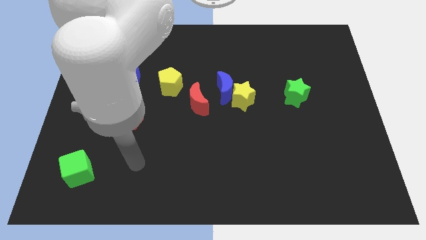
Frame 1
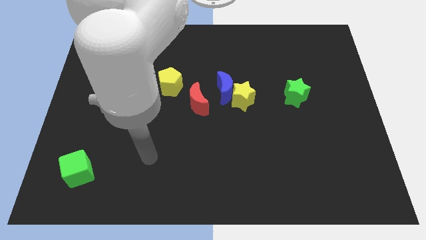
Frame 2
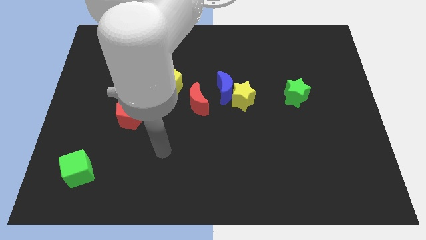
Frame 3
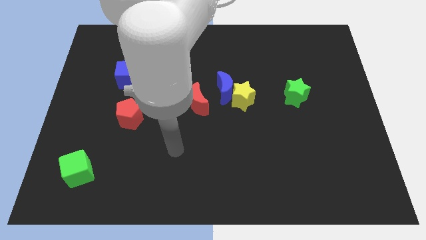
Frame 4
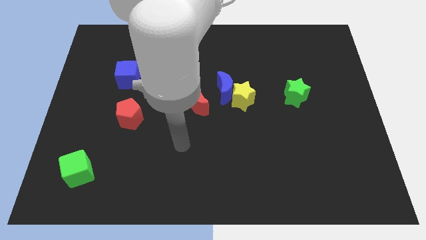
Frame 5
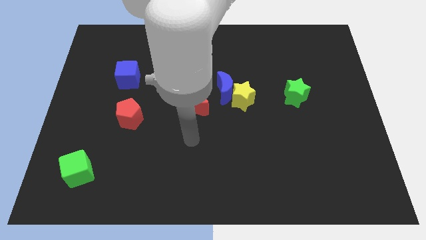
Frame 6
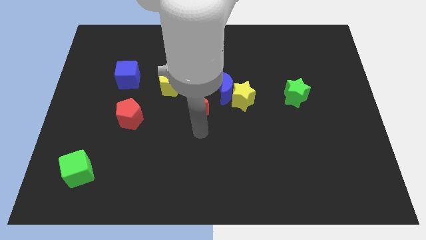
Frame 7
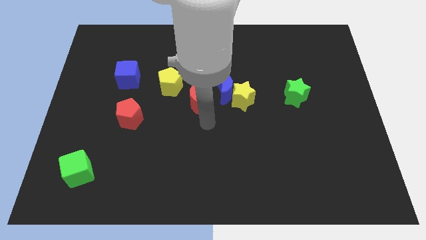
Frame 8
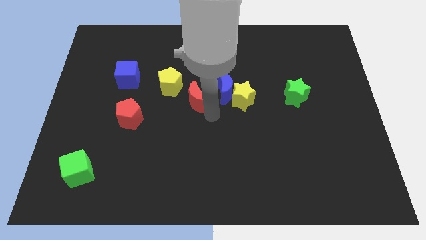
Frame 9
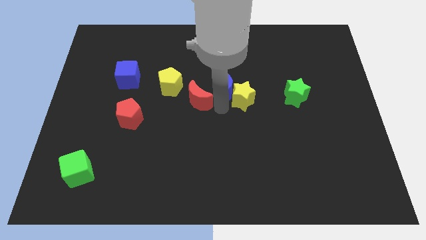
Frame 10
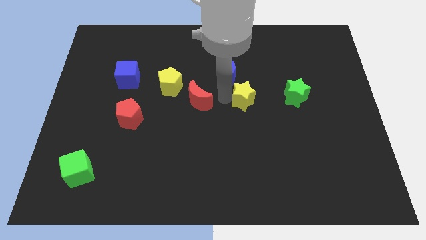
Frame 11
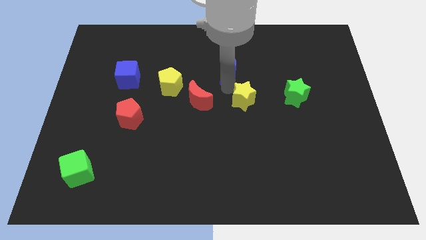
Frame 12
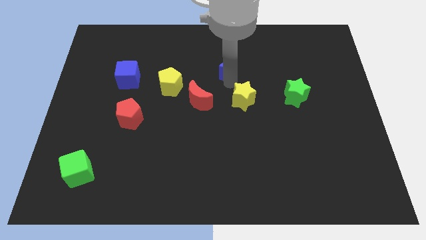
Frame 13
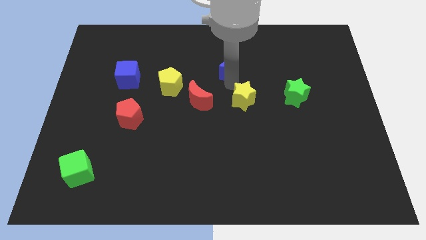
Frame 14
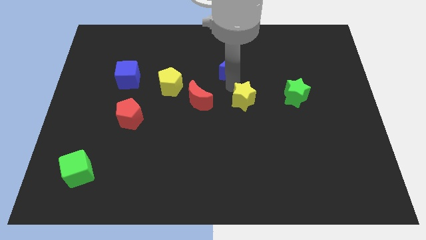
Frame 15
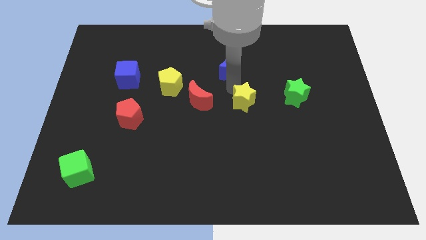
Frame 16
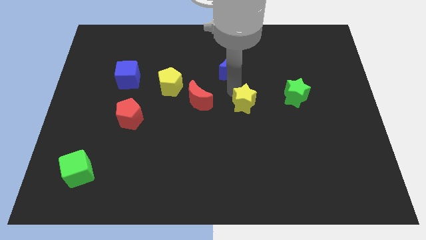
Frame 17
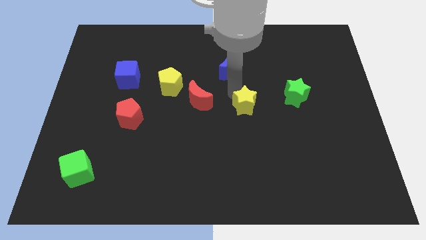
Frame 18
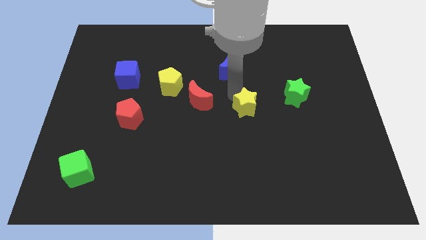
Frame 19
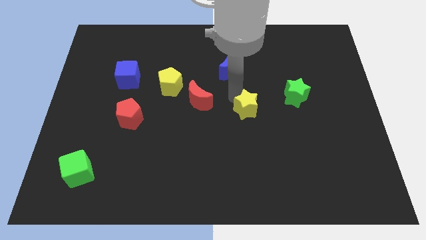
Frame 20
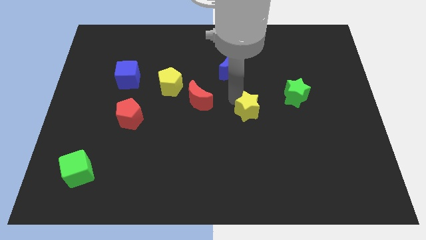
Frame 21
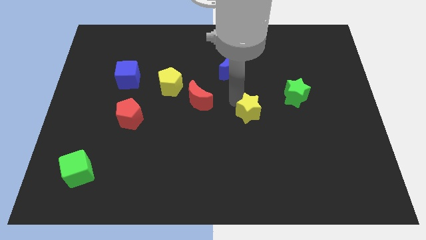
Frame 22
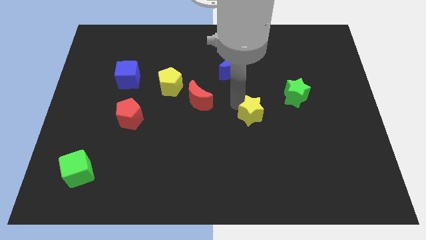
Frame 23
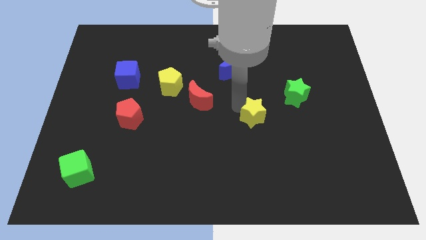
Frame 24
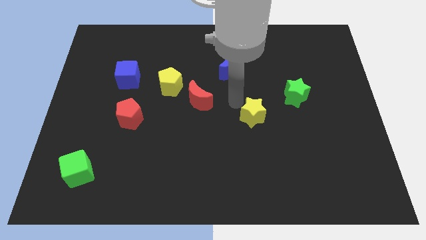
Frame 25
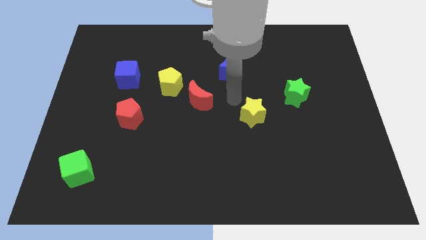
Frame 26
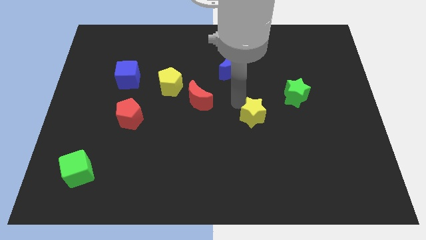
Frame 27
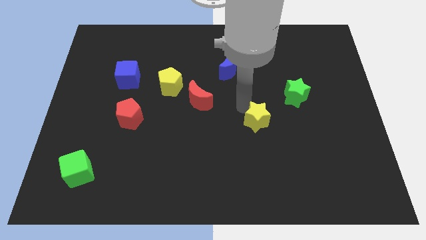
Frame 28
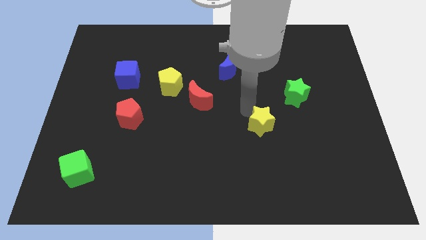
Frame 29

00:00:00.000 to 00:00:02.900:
slightly slide the yellow star downwards and right diagonally

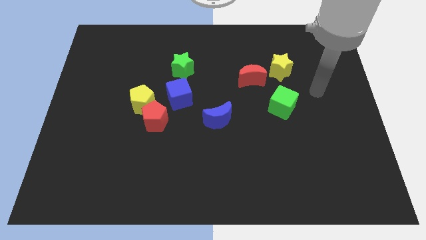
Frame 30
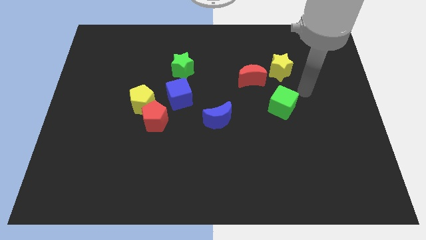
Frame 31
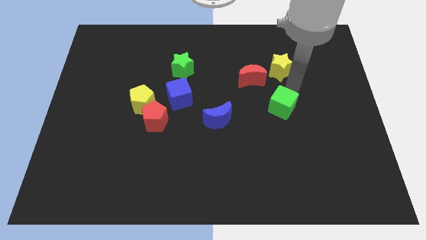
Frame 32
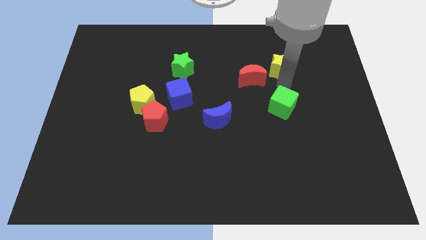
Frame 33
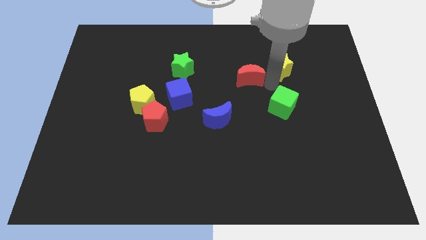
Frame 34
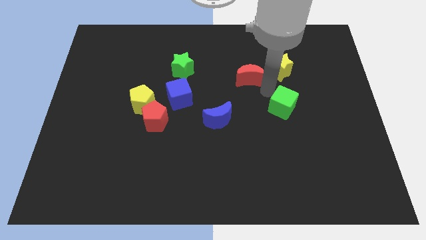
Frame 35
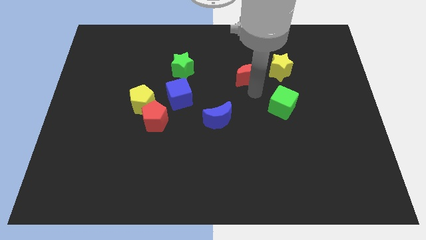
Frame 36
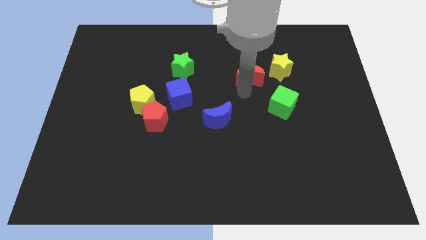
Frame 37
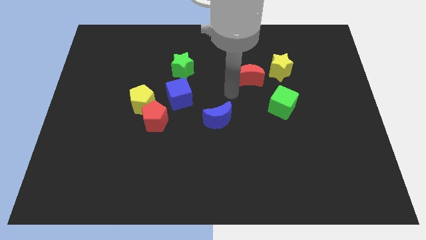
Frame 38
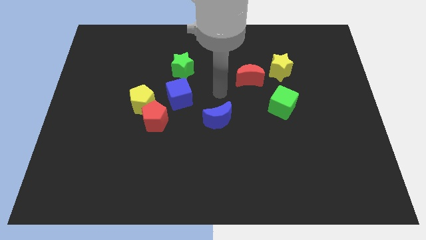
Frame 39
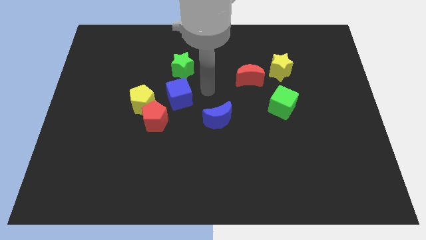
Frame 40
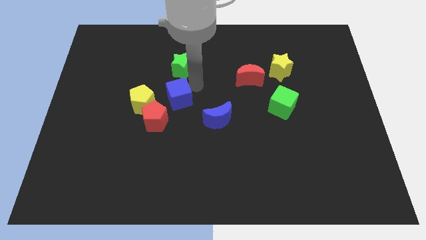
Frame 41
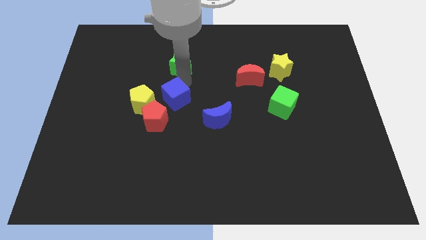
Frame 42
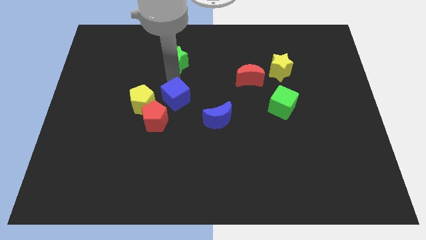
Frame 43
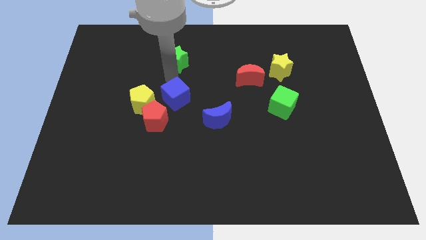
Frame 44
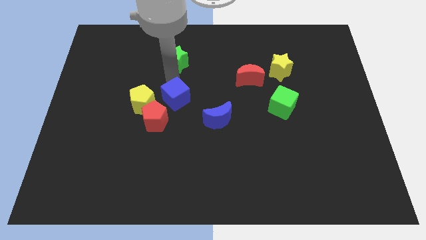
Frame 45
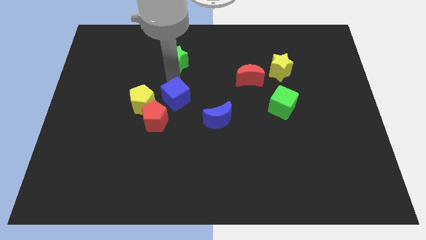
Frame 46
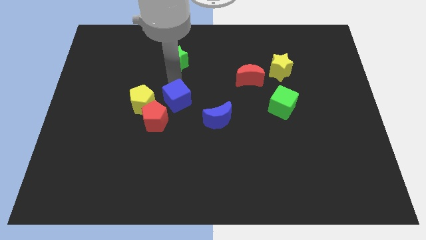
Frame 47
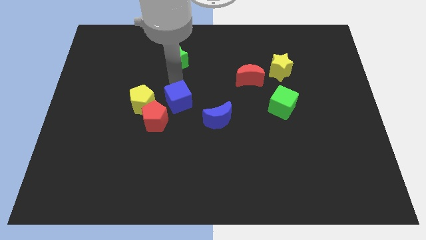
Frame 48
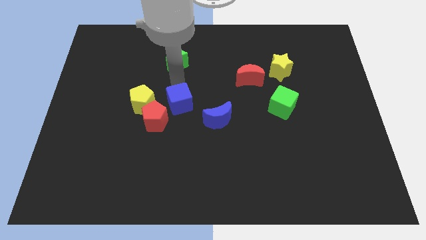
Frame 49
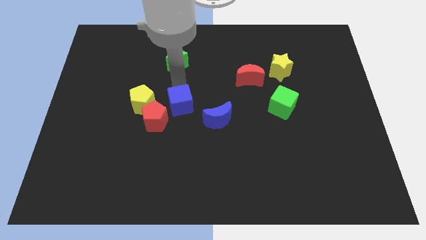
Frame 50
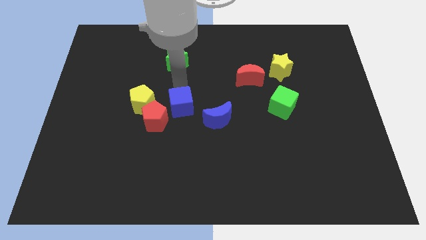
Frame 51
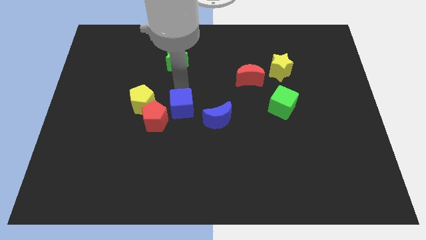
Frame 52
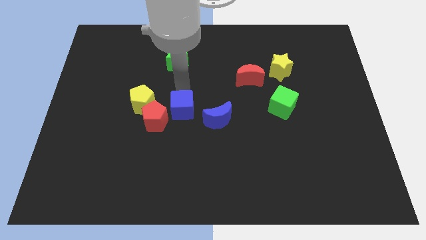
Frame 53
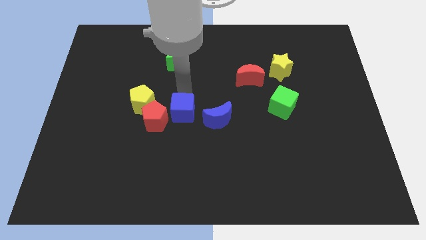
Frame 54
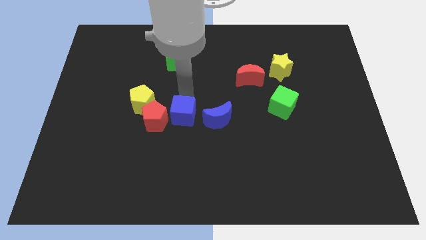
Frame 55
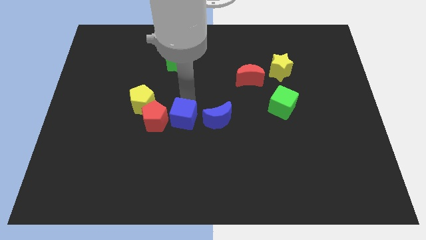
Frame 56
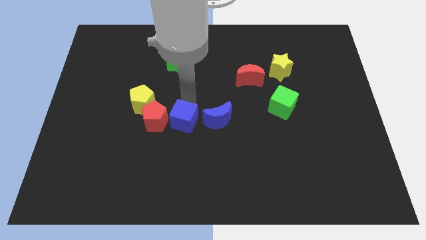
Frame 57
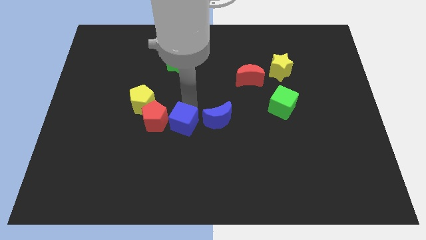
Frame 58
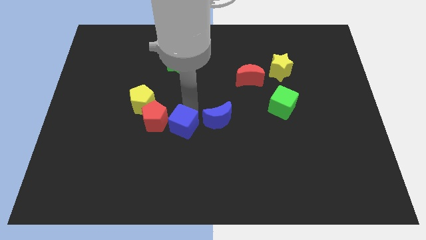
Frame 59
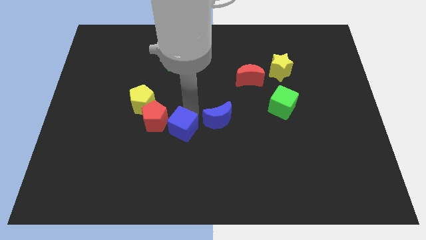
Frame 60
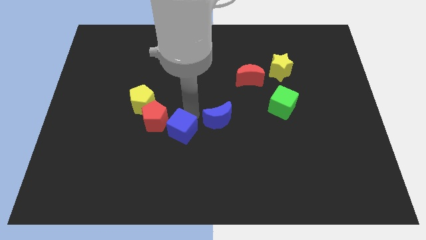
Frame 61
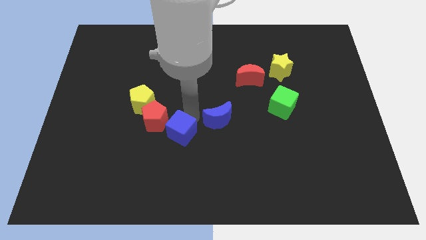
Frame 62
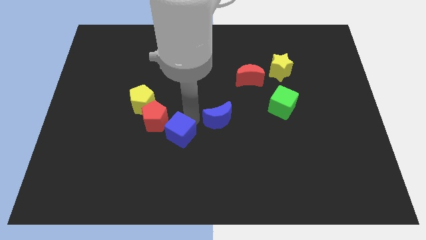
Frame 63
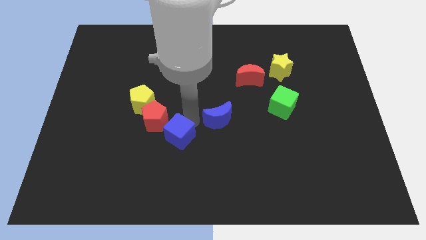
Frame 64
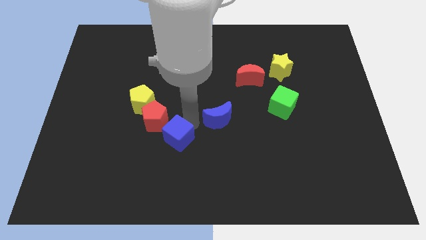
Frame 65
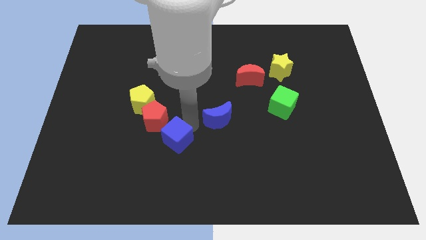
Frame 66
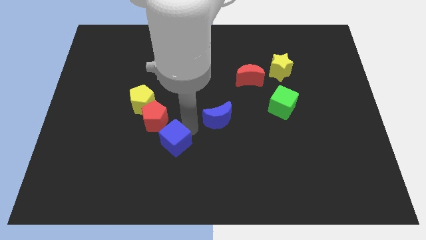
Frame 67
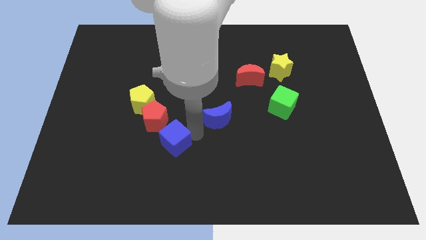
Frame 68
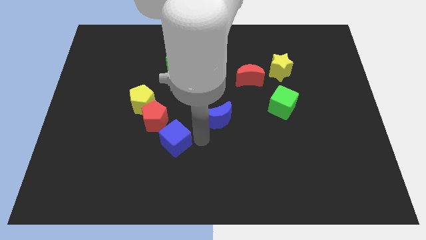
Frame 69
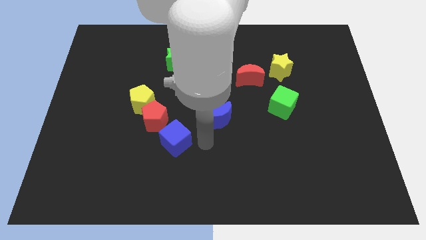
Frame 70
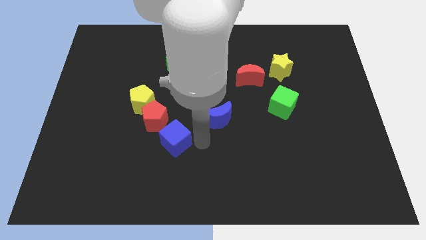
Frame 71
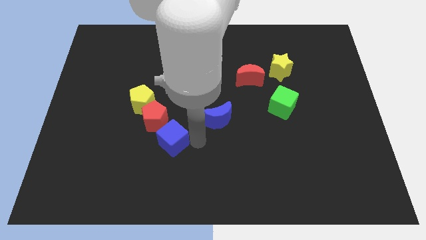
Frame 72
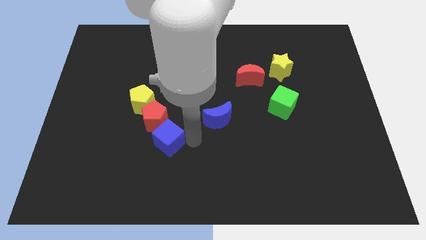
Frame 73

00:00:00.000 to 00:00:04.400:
move the blue cube a little bit downwards and then to the left

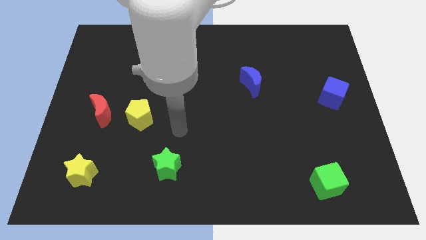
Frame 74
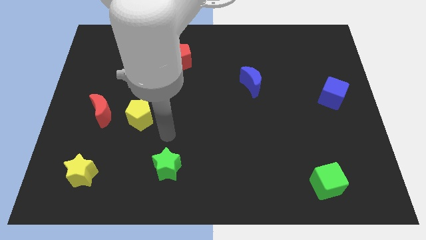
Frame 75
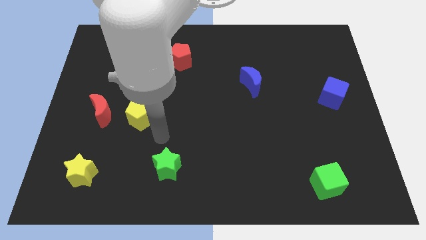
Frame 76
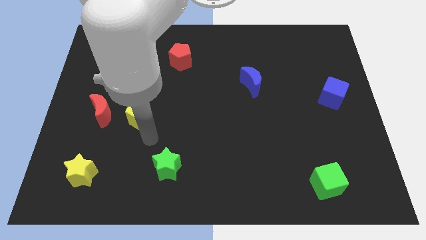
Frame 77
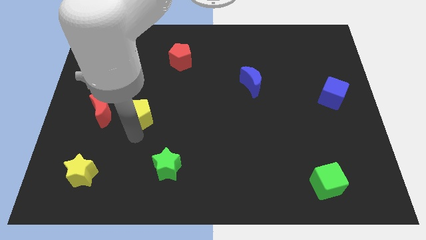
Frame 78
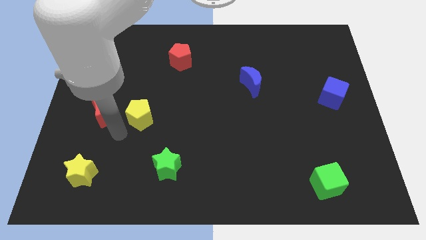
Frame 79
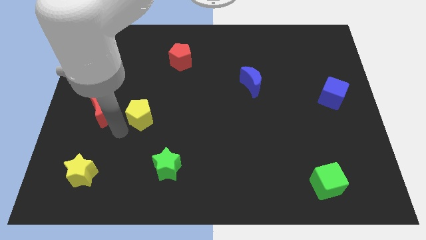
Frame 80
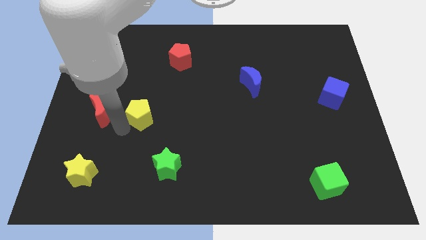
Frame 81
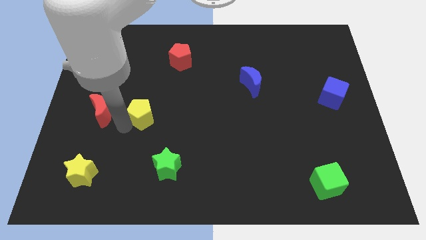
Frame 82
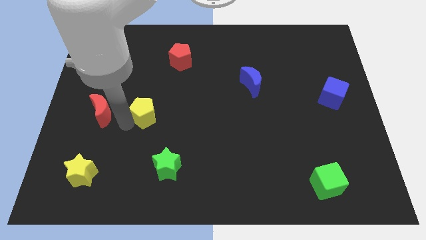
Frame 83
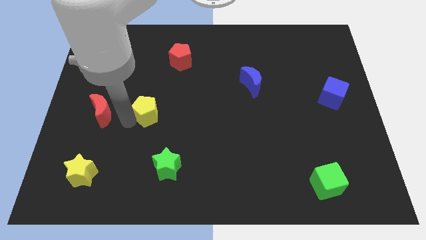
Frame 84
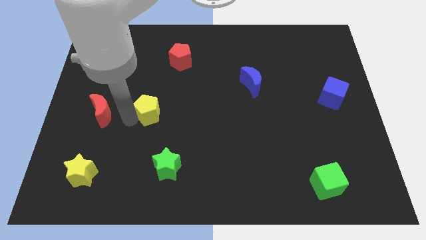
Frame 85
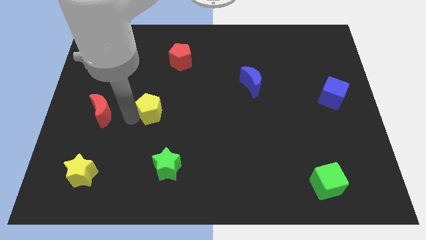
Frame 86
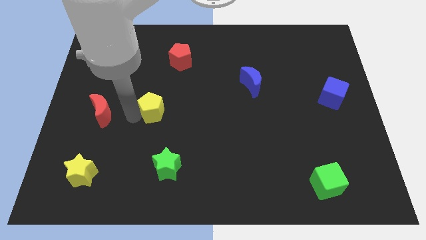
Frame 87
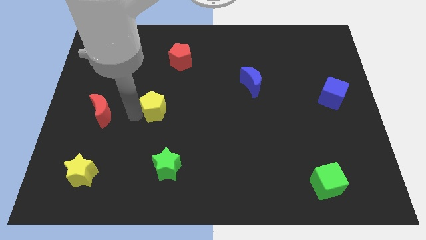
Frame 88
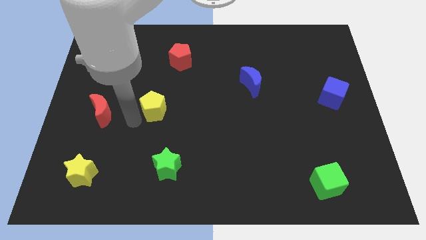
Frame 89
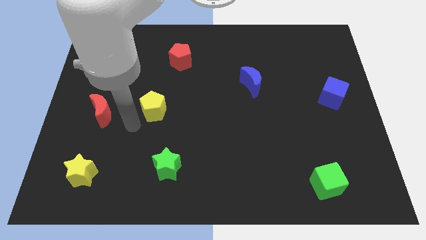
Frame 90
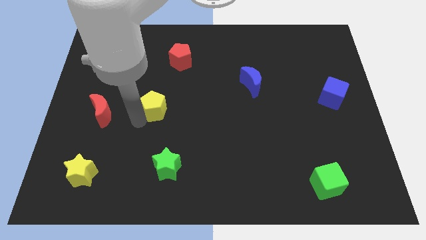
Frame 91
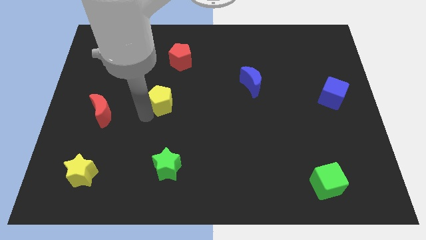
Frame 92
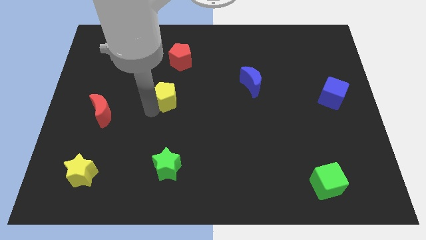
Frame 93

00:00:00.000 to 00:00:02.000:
slightly slide the yellow pentagon up and to the right diagonally
